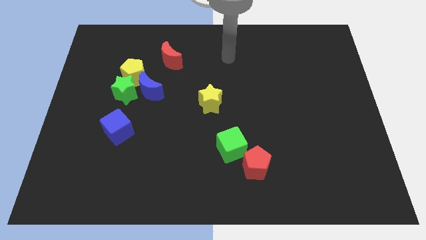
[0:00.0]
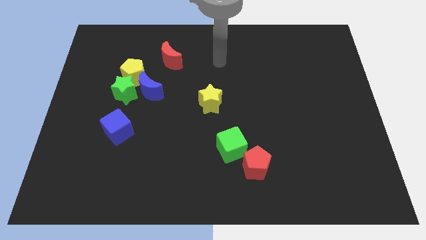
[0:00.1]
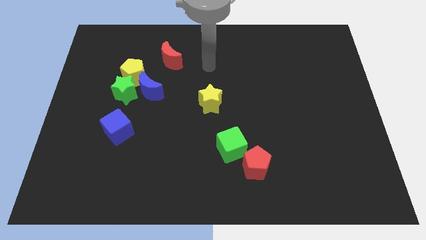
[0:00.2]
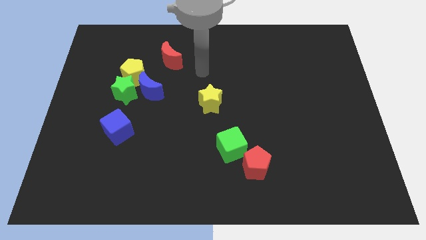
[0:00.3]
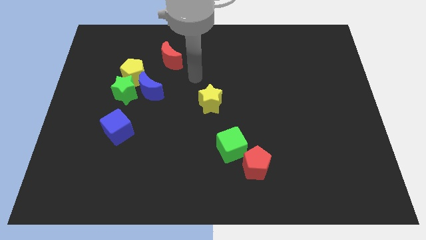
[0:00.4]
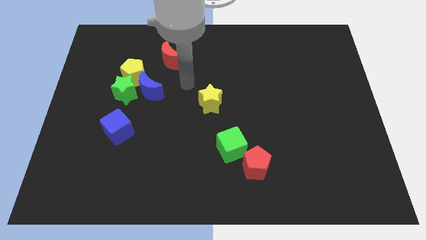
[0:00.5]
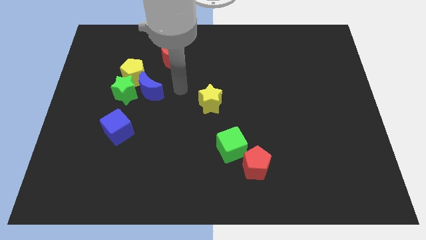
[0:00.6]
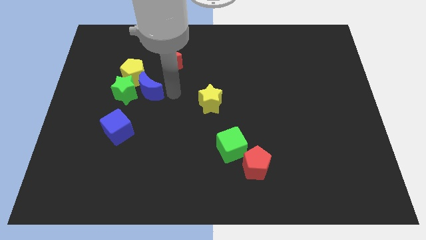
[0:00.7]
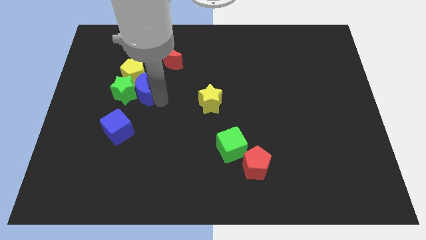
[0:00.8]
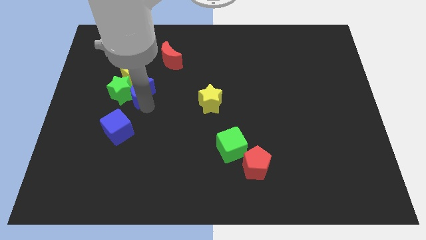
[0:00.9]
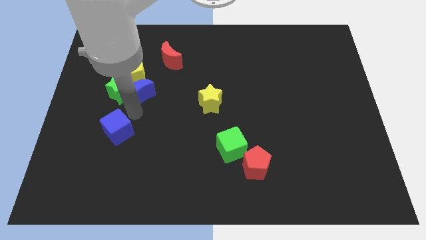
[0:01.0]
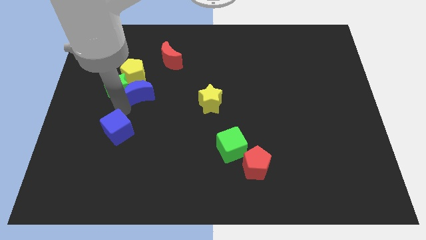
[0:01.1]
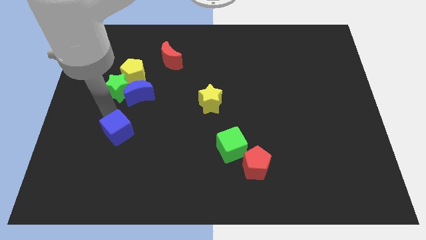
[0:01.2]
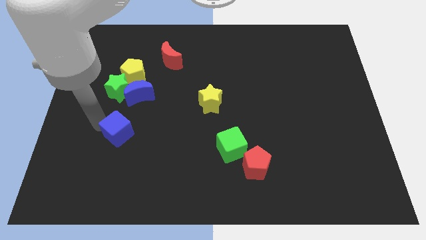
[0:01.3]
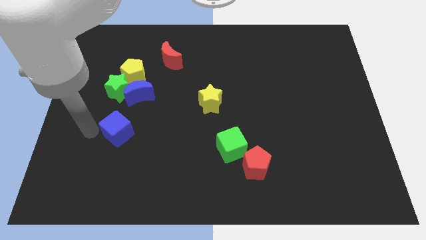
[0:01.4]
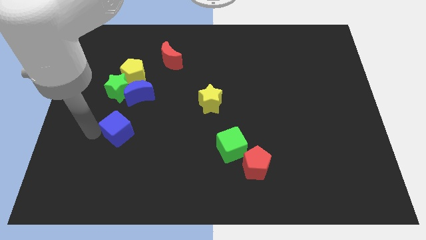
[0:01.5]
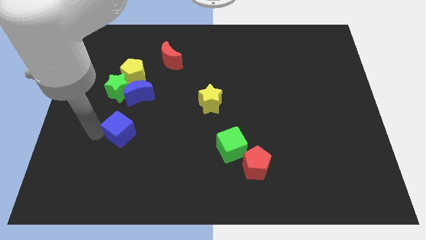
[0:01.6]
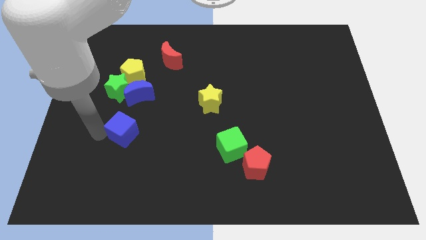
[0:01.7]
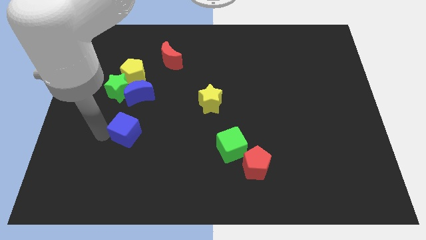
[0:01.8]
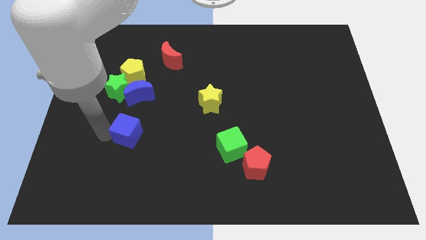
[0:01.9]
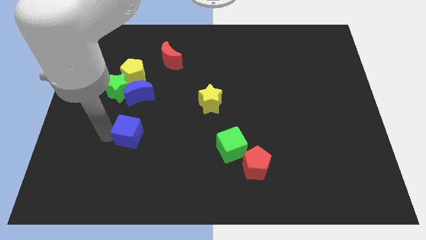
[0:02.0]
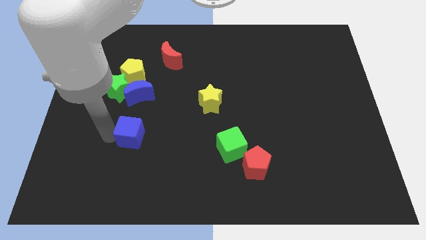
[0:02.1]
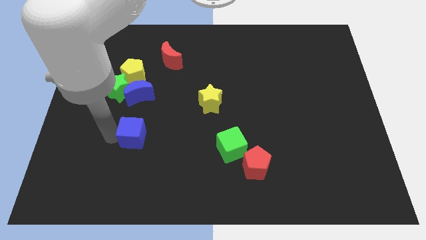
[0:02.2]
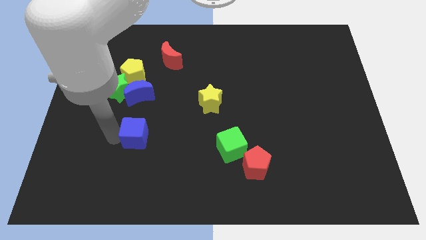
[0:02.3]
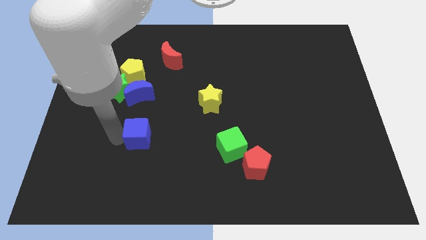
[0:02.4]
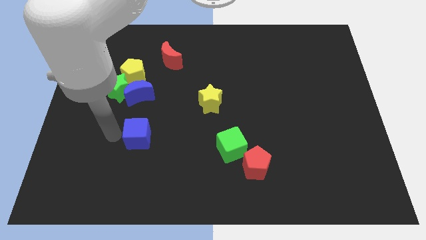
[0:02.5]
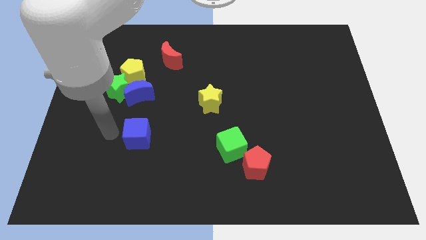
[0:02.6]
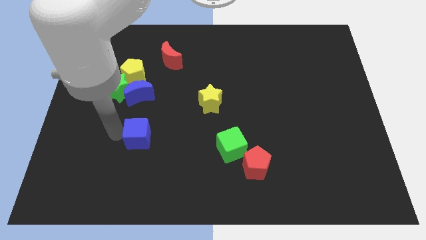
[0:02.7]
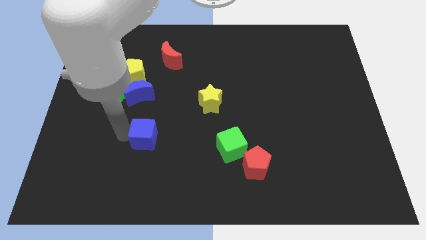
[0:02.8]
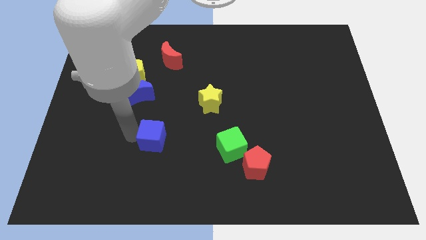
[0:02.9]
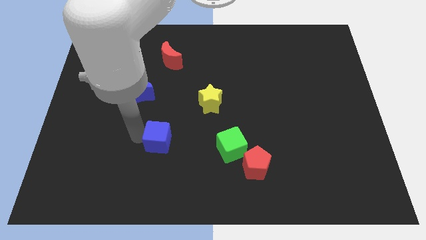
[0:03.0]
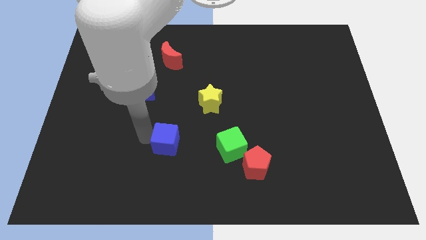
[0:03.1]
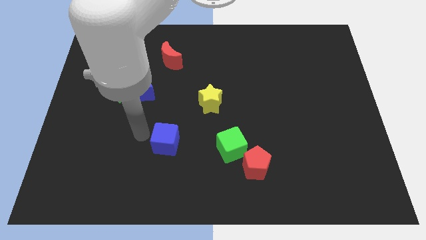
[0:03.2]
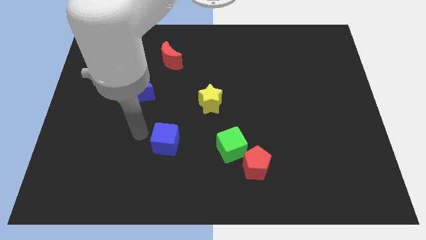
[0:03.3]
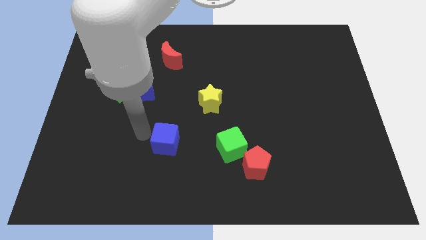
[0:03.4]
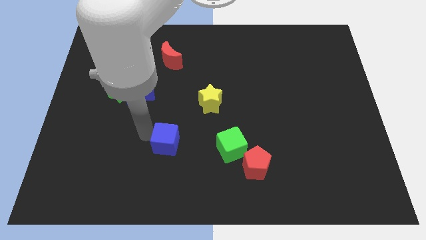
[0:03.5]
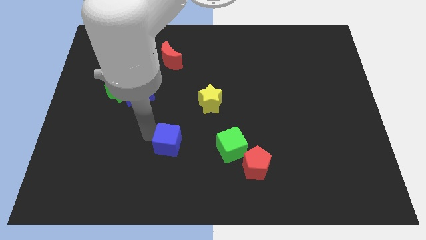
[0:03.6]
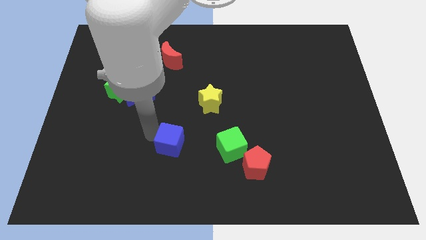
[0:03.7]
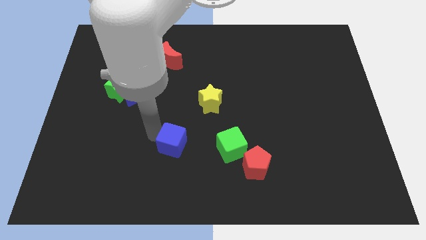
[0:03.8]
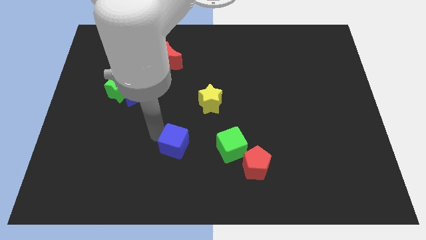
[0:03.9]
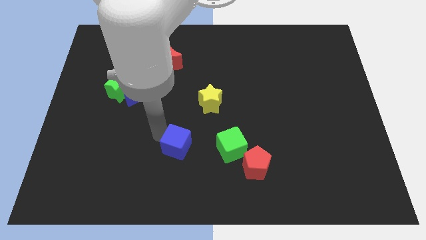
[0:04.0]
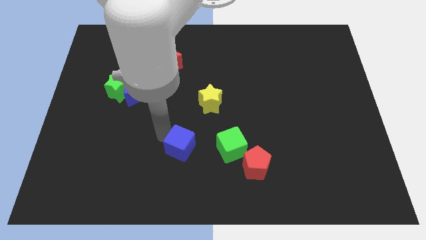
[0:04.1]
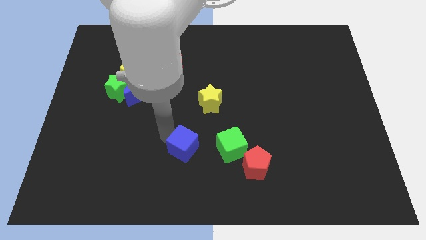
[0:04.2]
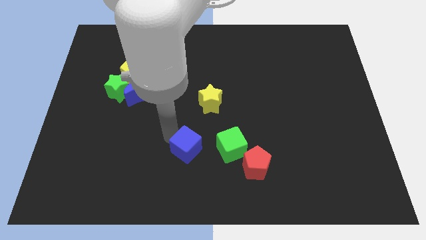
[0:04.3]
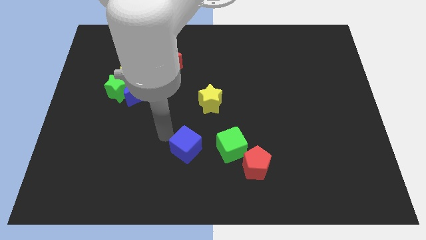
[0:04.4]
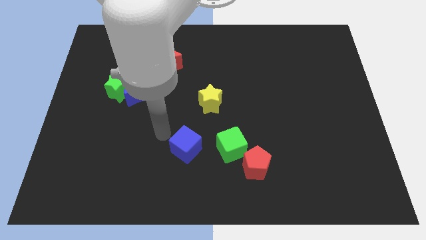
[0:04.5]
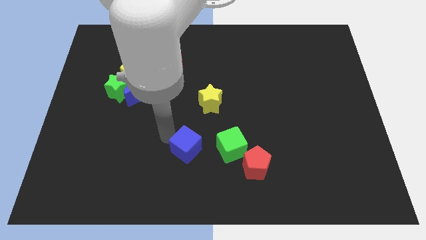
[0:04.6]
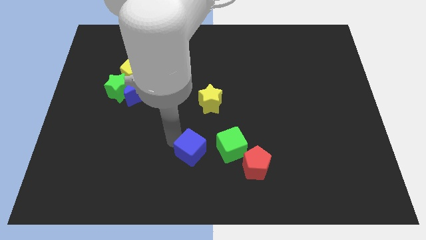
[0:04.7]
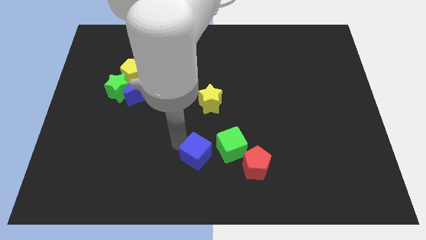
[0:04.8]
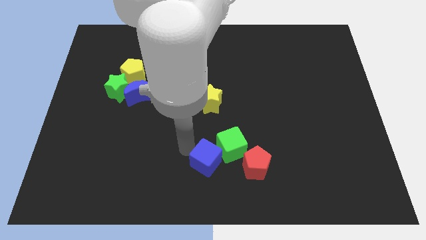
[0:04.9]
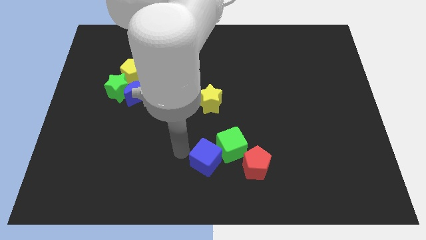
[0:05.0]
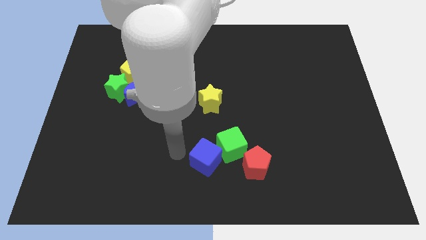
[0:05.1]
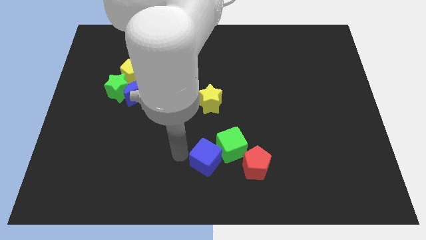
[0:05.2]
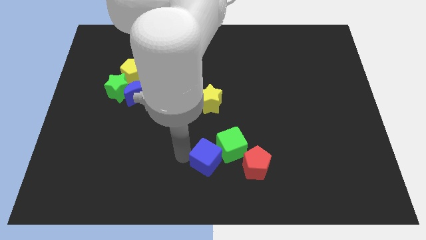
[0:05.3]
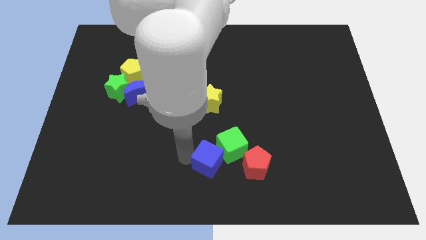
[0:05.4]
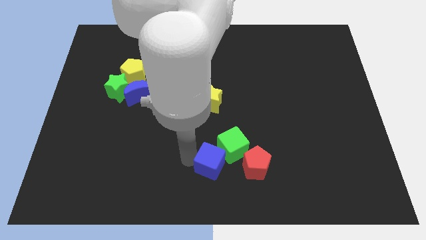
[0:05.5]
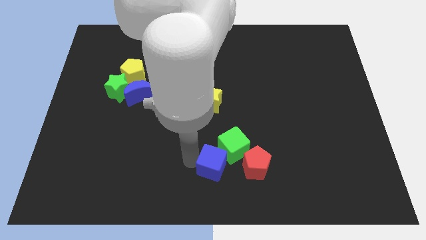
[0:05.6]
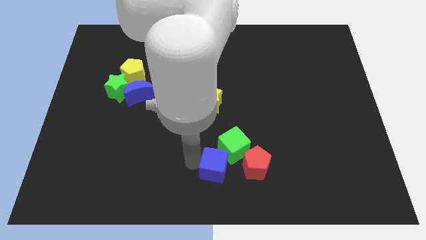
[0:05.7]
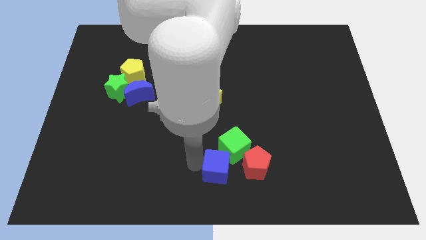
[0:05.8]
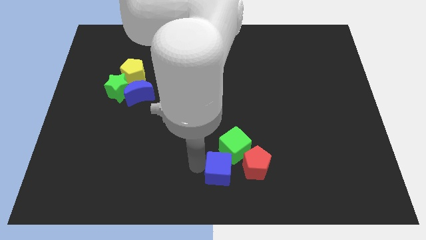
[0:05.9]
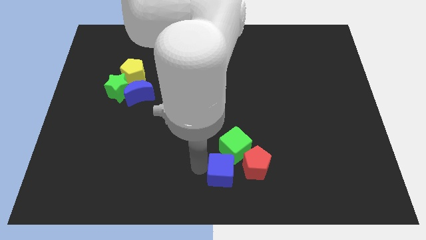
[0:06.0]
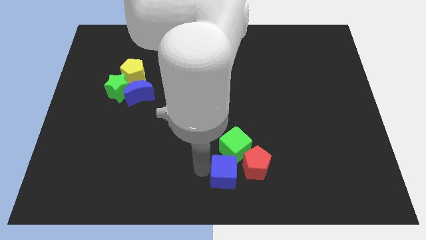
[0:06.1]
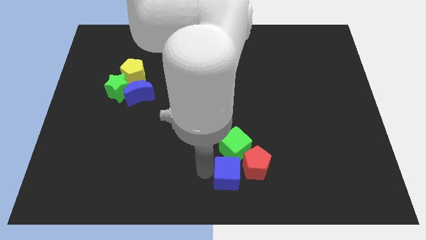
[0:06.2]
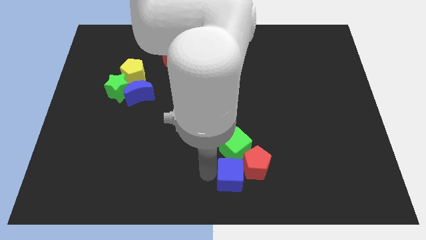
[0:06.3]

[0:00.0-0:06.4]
move the blue cube next to the red pentagon

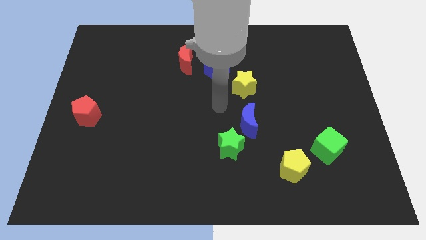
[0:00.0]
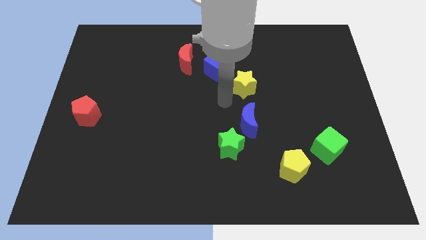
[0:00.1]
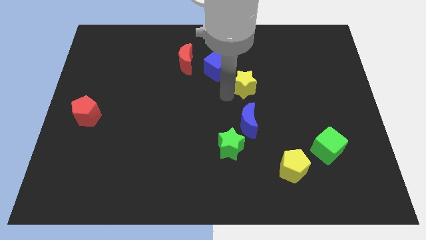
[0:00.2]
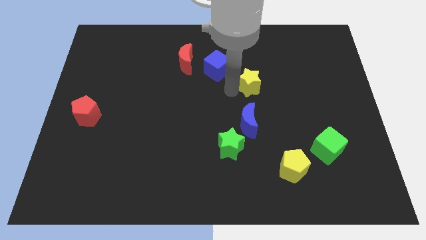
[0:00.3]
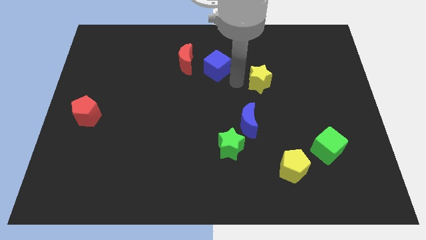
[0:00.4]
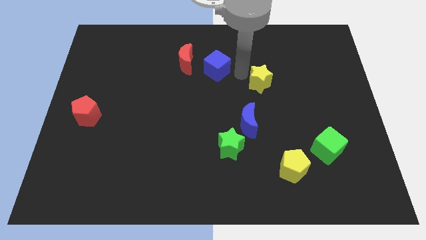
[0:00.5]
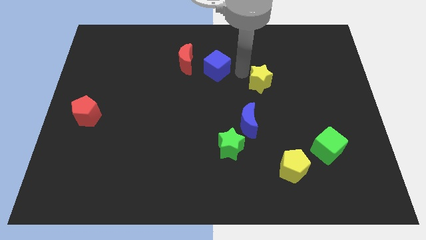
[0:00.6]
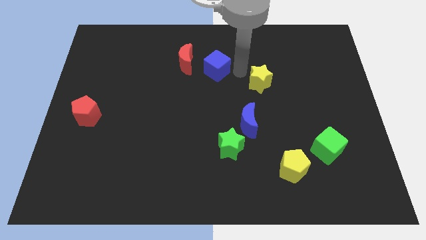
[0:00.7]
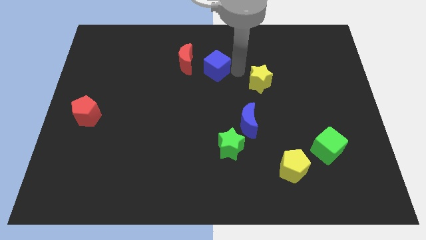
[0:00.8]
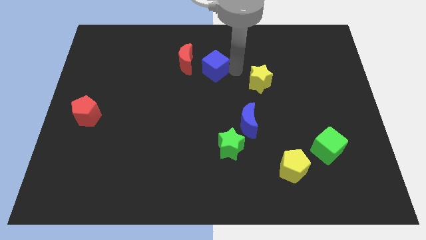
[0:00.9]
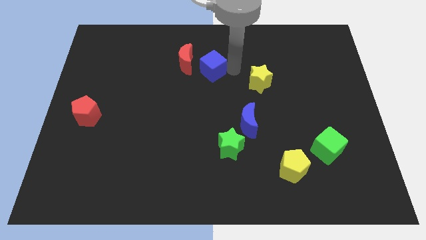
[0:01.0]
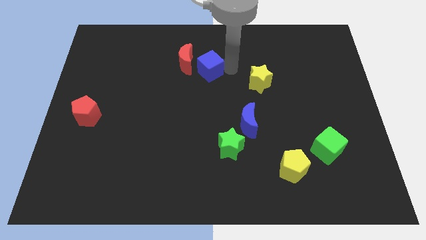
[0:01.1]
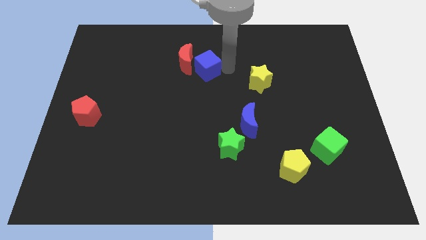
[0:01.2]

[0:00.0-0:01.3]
move the blue cube close to the red moon
